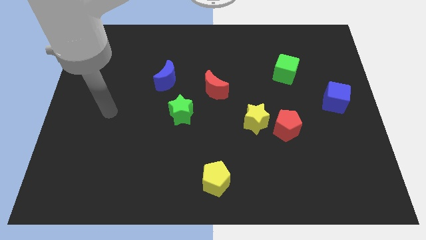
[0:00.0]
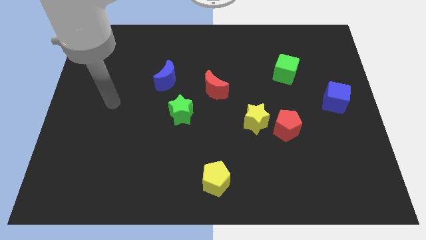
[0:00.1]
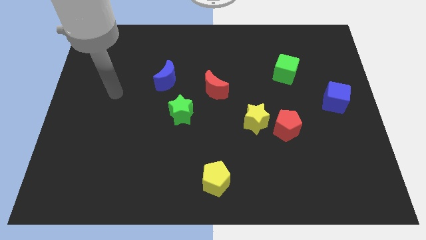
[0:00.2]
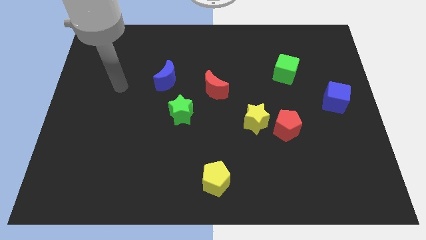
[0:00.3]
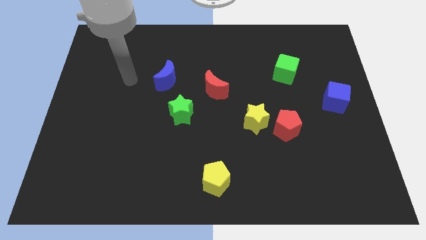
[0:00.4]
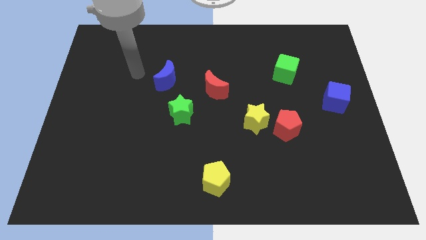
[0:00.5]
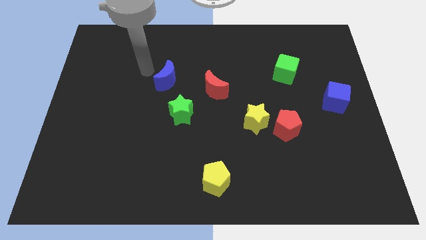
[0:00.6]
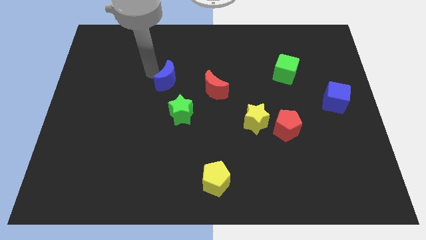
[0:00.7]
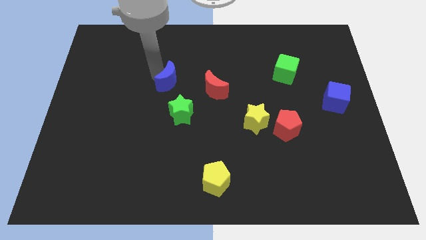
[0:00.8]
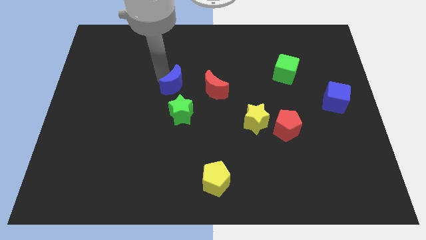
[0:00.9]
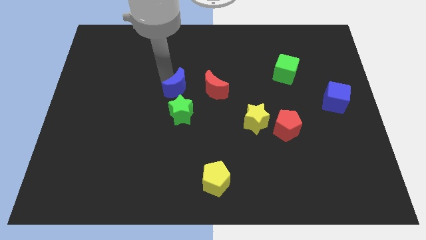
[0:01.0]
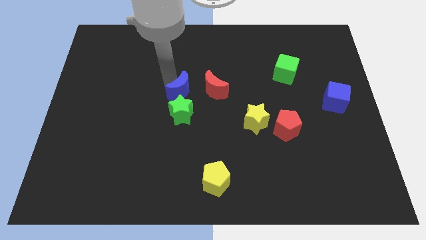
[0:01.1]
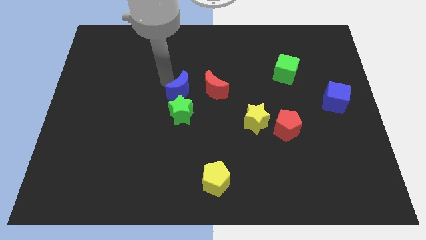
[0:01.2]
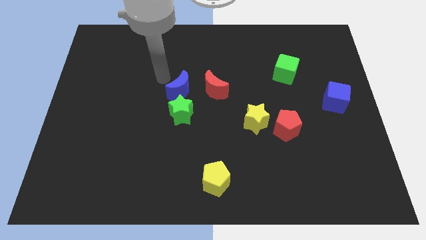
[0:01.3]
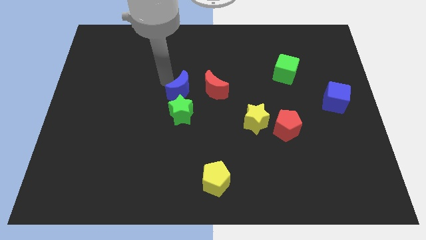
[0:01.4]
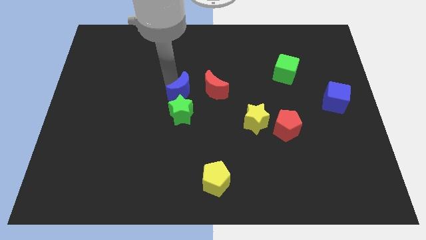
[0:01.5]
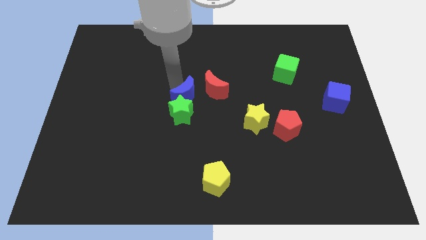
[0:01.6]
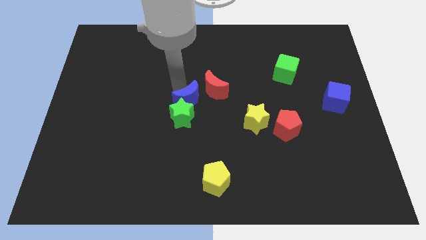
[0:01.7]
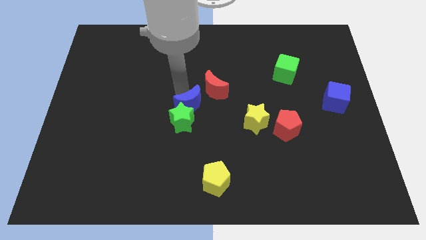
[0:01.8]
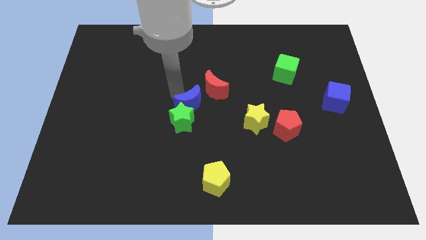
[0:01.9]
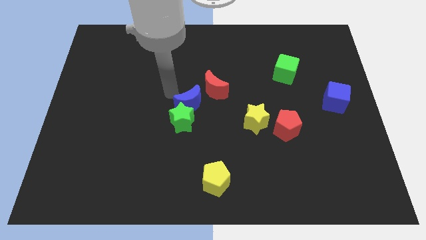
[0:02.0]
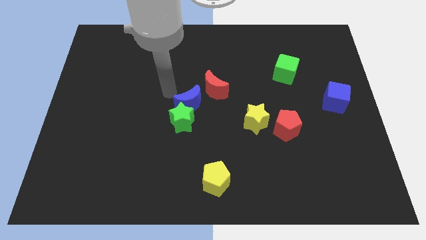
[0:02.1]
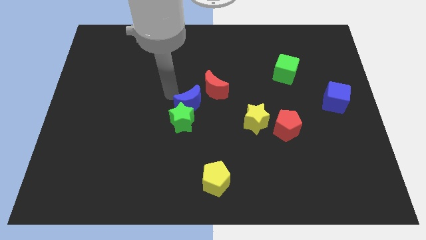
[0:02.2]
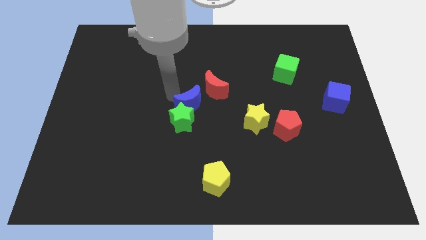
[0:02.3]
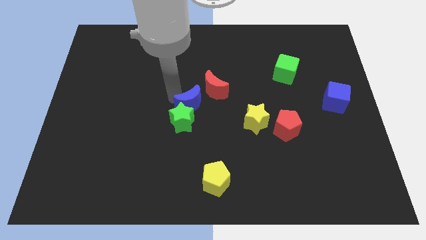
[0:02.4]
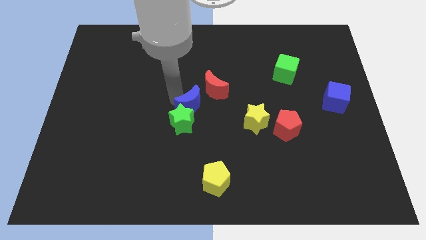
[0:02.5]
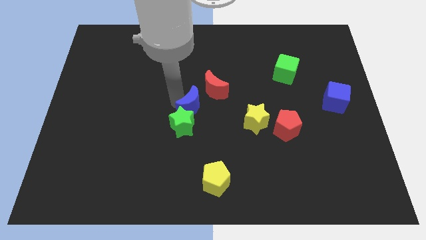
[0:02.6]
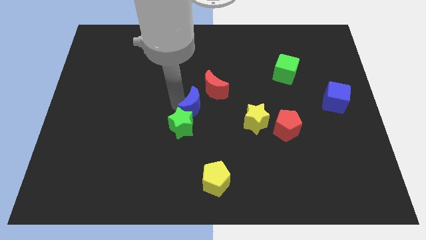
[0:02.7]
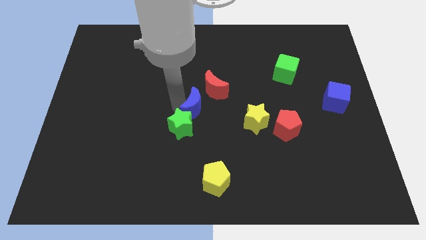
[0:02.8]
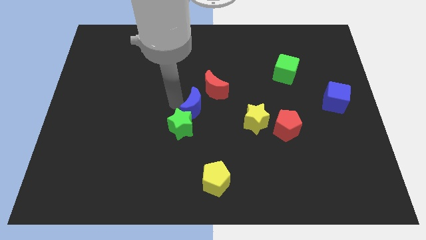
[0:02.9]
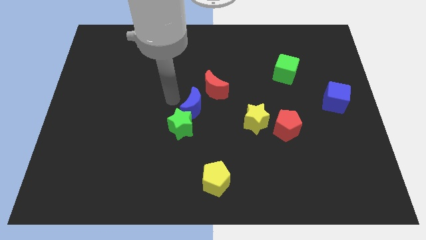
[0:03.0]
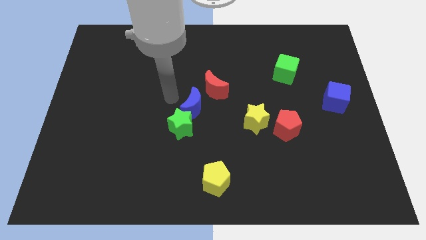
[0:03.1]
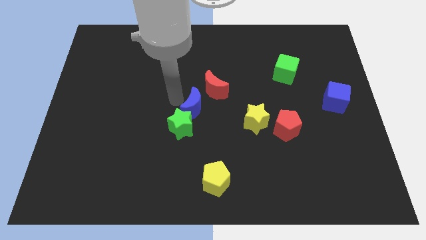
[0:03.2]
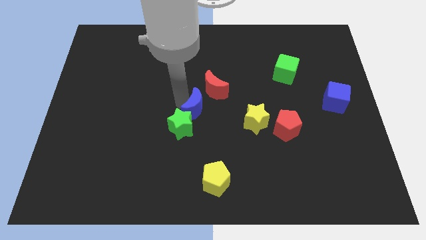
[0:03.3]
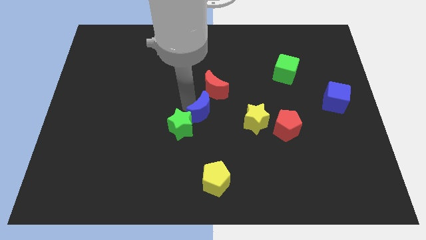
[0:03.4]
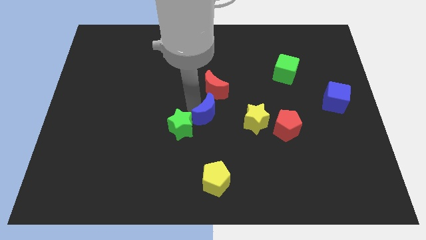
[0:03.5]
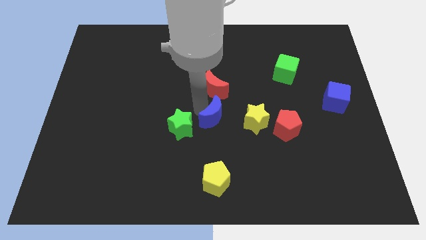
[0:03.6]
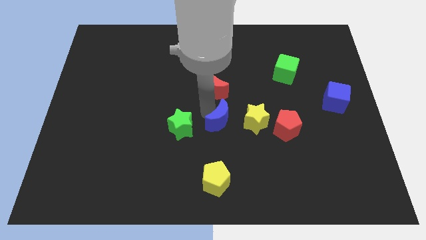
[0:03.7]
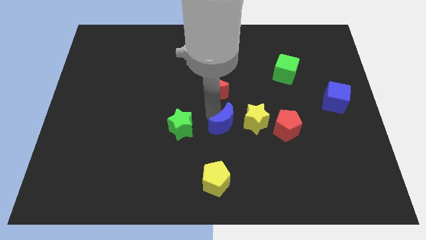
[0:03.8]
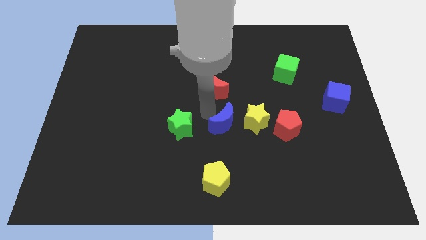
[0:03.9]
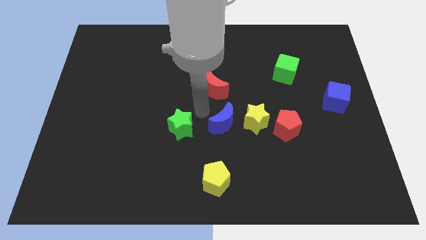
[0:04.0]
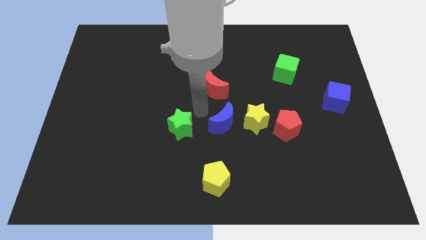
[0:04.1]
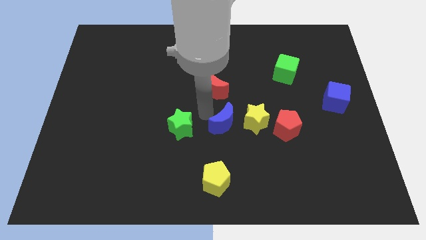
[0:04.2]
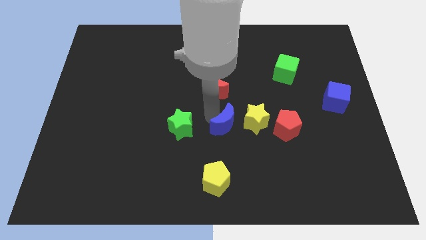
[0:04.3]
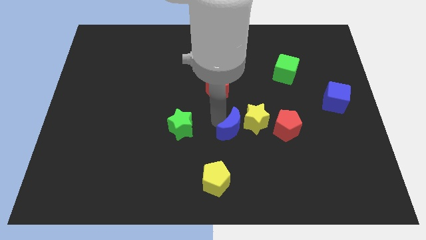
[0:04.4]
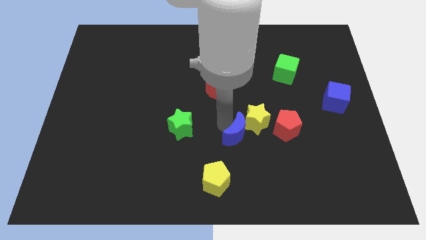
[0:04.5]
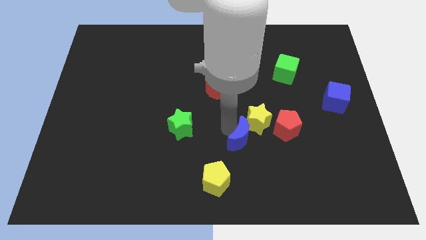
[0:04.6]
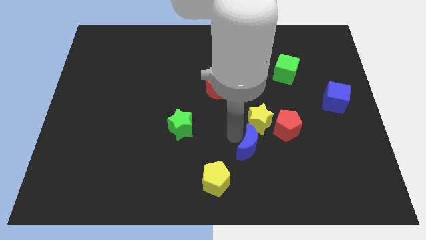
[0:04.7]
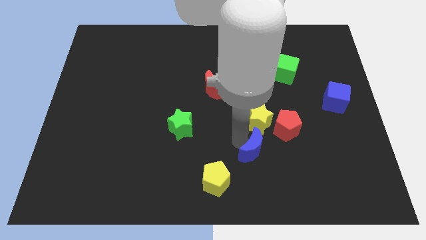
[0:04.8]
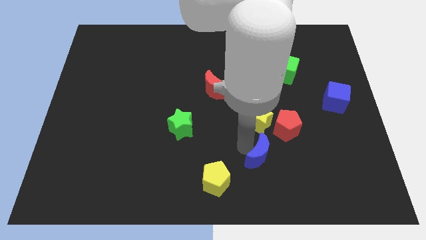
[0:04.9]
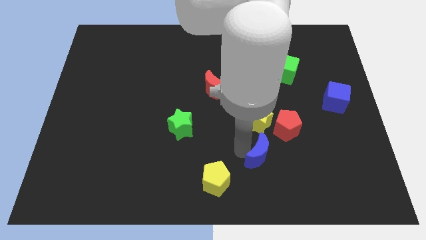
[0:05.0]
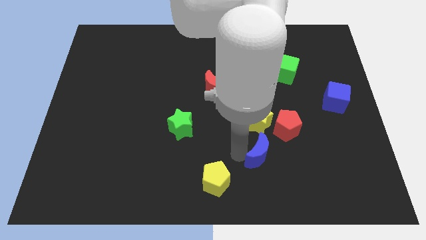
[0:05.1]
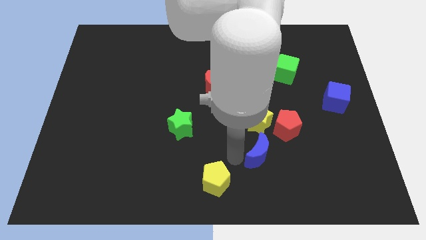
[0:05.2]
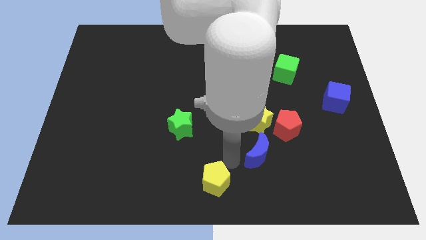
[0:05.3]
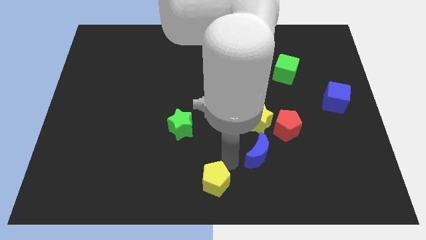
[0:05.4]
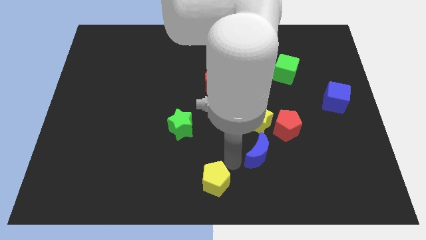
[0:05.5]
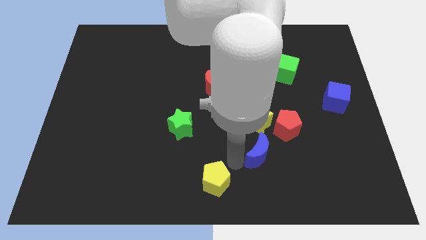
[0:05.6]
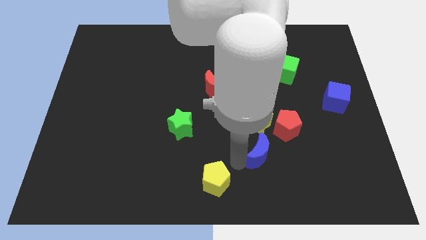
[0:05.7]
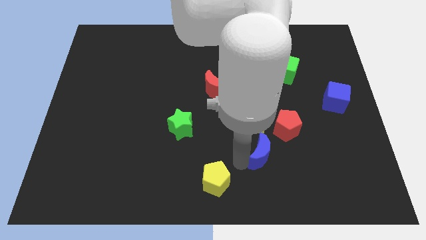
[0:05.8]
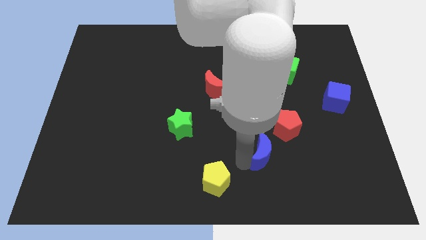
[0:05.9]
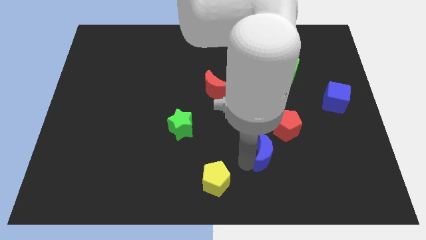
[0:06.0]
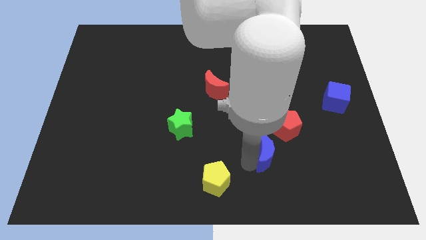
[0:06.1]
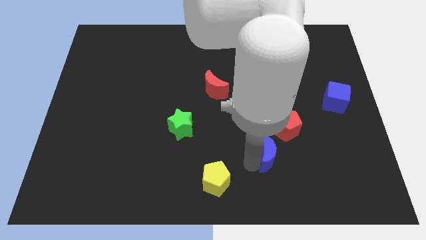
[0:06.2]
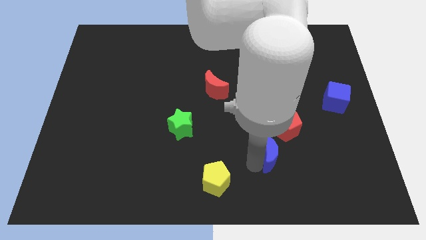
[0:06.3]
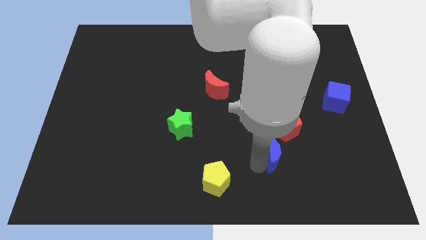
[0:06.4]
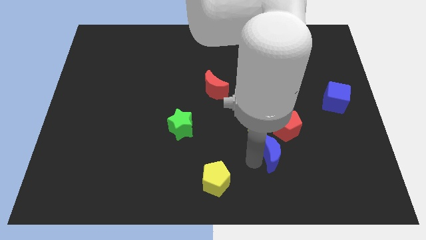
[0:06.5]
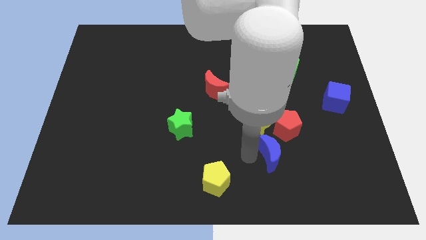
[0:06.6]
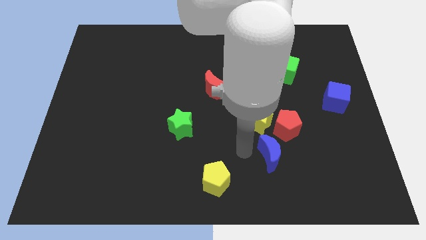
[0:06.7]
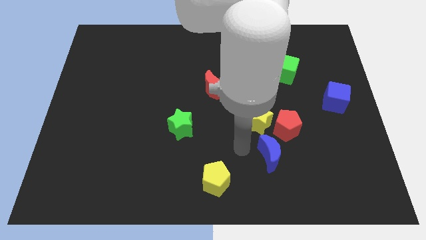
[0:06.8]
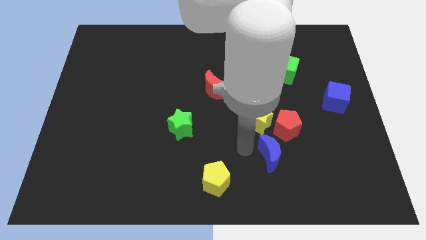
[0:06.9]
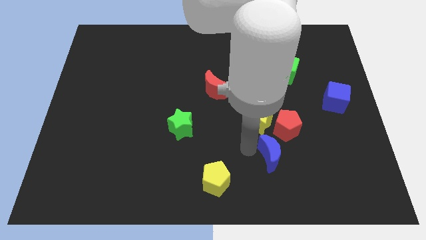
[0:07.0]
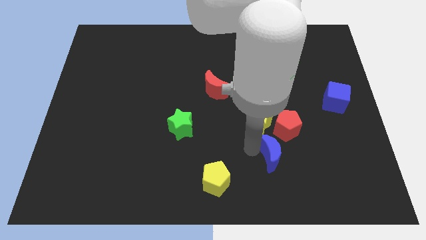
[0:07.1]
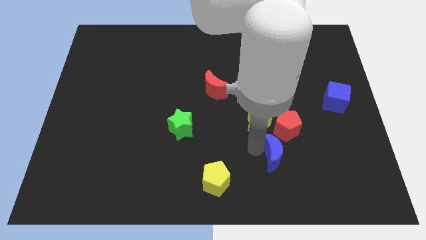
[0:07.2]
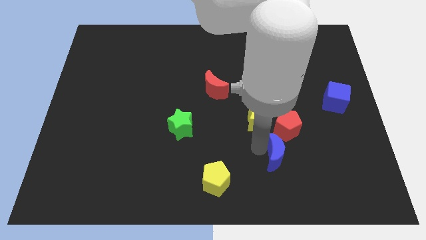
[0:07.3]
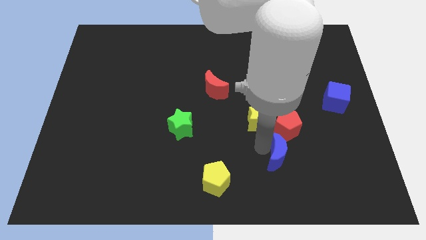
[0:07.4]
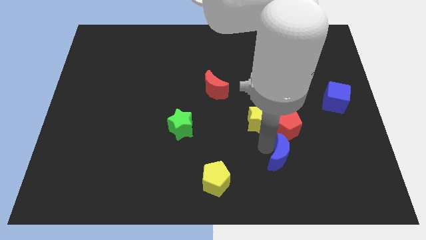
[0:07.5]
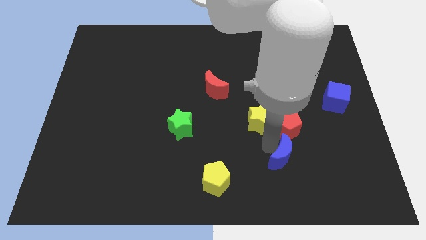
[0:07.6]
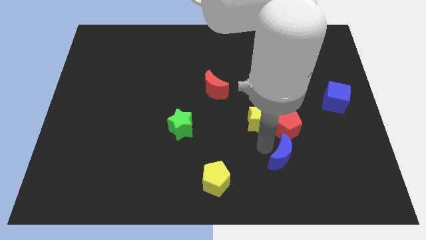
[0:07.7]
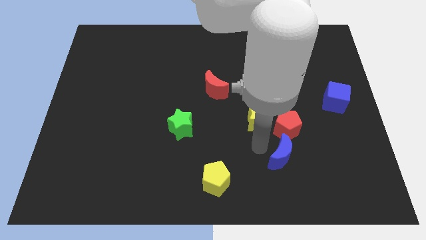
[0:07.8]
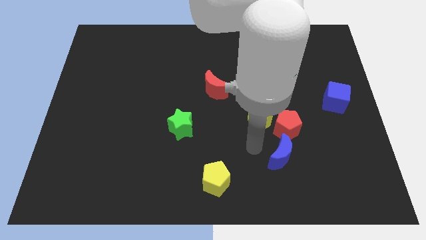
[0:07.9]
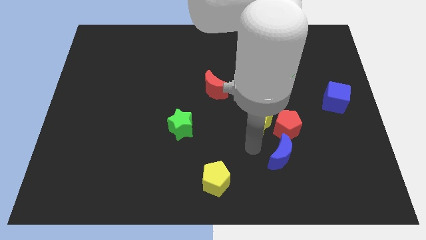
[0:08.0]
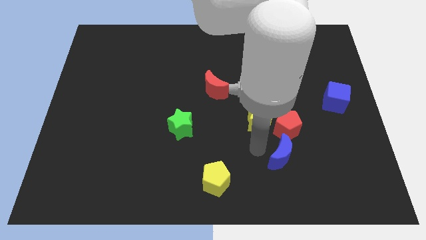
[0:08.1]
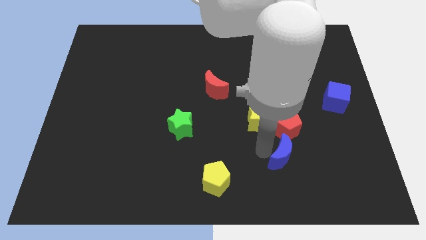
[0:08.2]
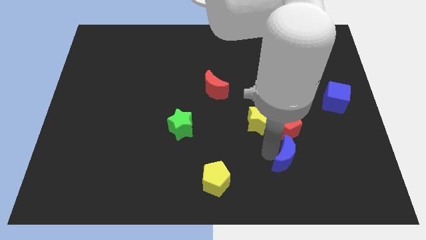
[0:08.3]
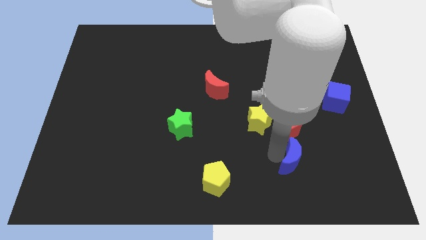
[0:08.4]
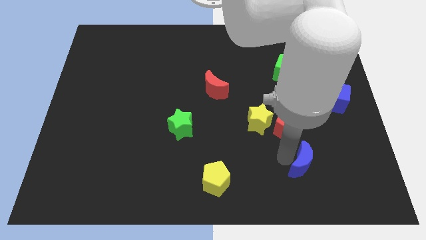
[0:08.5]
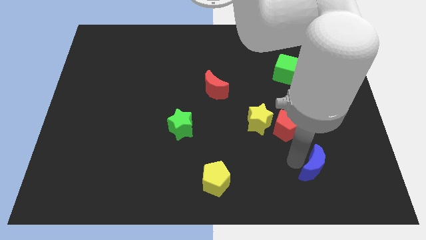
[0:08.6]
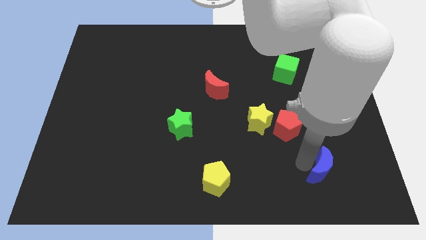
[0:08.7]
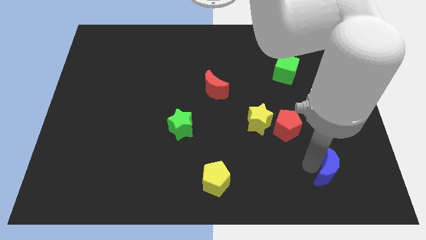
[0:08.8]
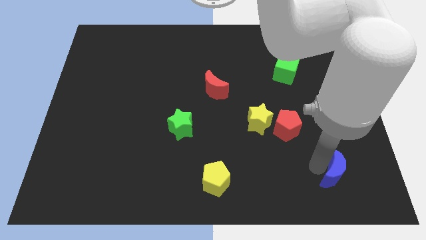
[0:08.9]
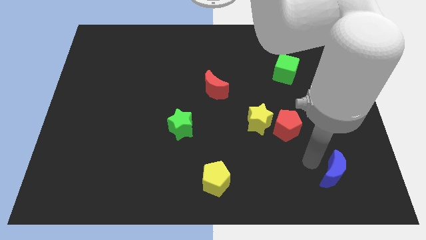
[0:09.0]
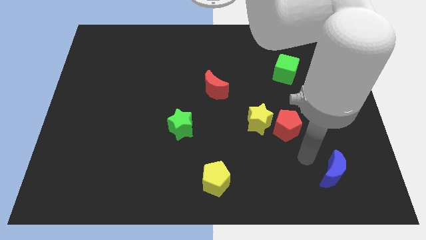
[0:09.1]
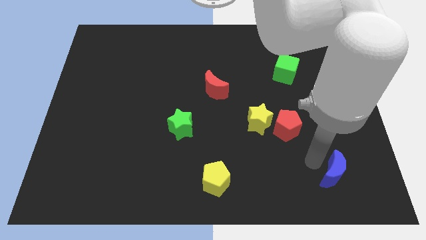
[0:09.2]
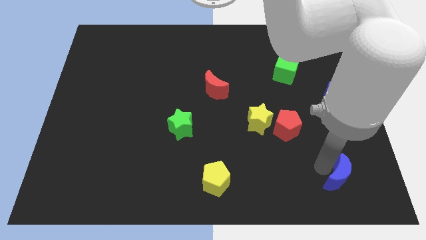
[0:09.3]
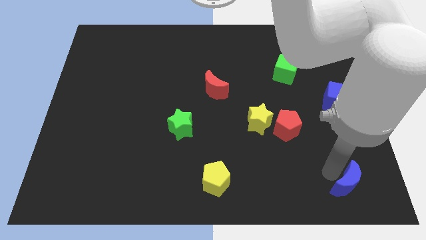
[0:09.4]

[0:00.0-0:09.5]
move the blue moon to the bottom right
